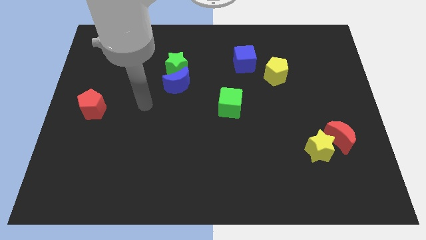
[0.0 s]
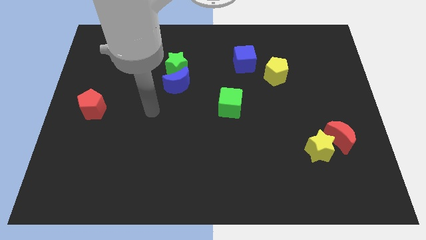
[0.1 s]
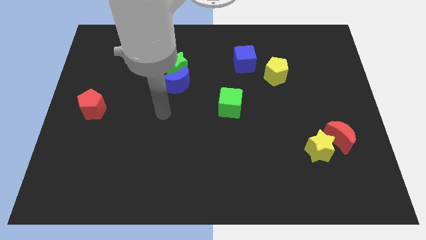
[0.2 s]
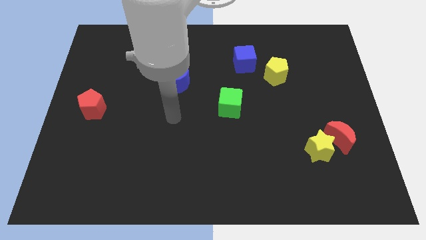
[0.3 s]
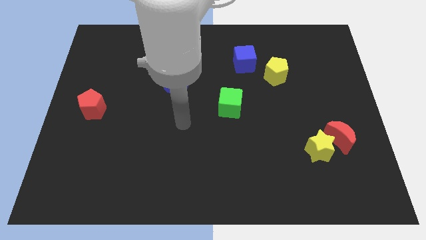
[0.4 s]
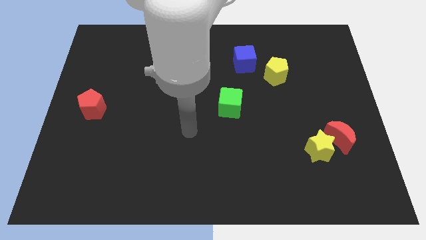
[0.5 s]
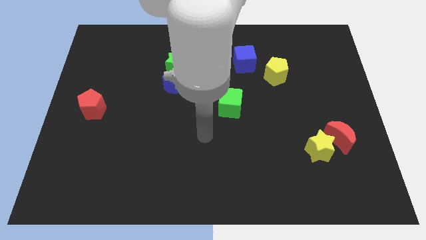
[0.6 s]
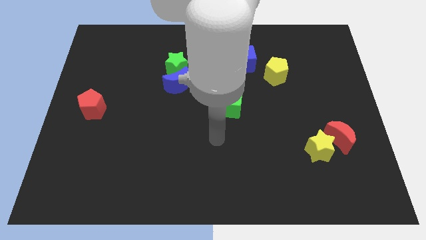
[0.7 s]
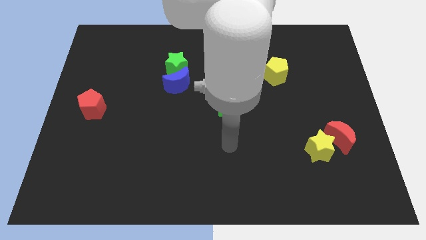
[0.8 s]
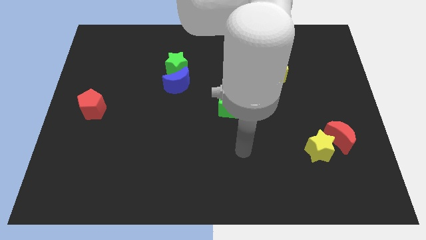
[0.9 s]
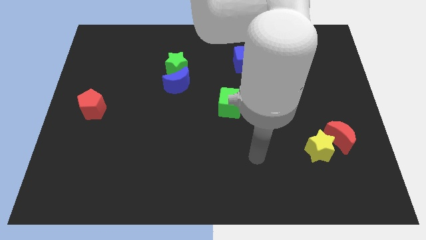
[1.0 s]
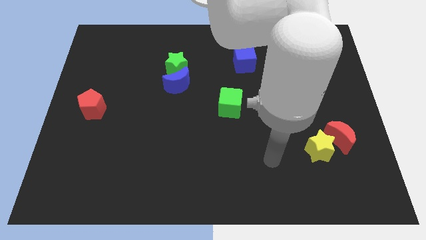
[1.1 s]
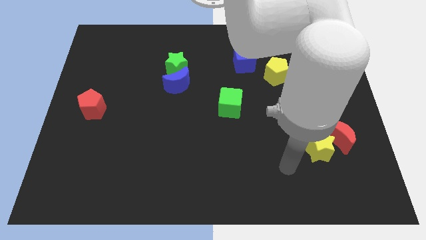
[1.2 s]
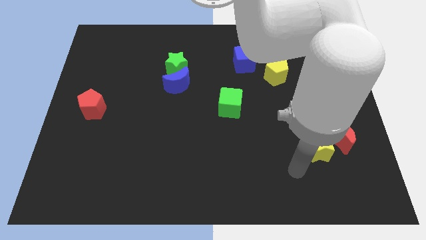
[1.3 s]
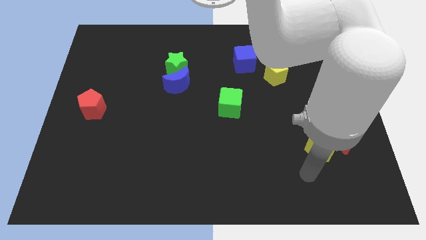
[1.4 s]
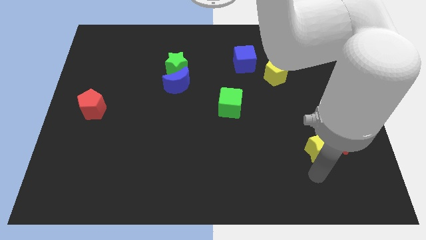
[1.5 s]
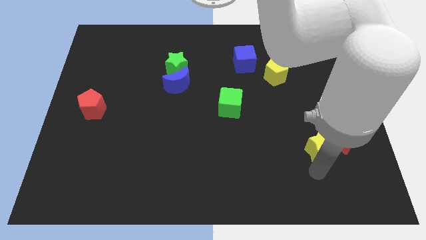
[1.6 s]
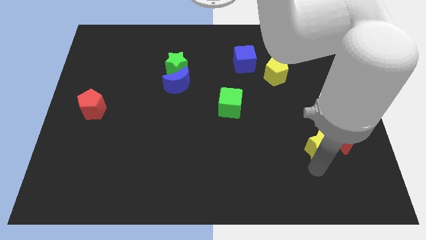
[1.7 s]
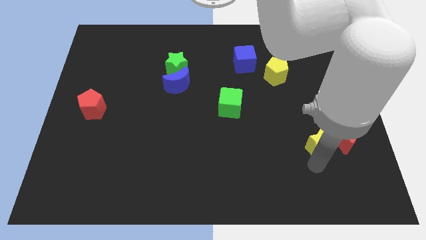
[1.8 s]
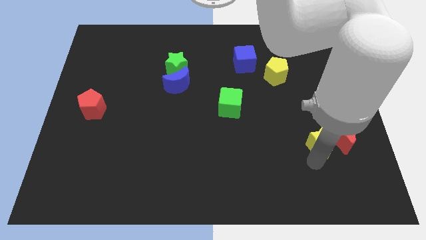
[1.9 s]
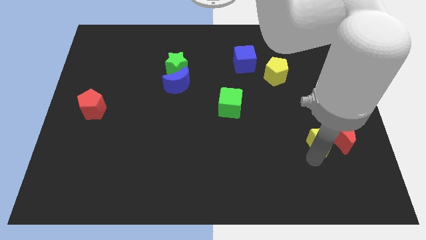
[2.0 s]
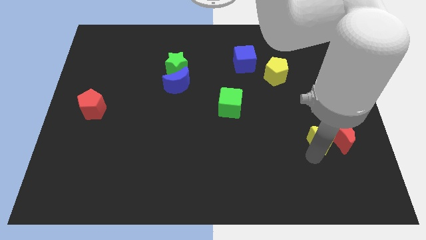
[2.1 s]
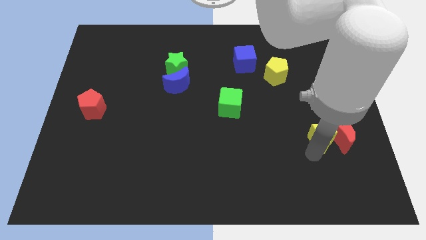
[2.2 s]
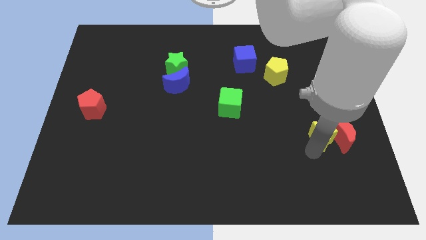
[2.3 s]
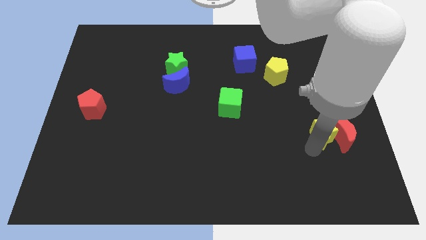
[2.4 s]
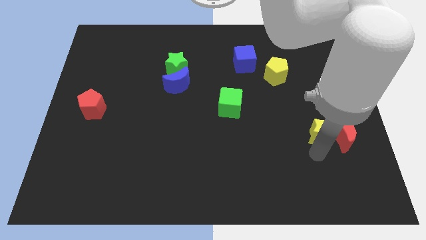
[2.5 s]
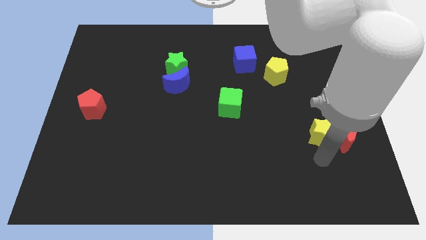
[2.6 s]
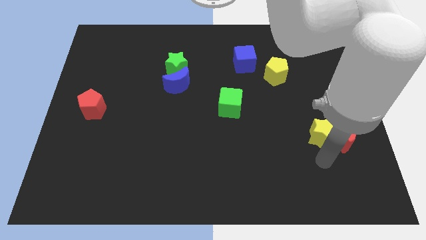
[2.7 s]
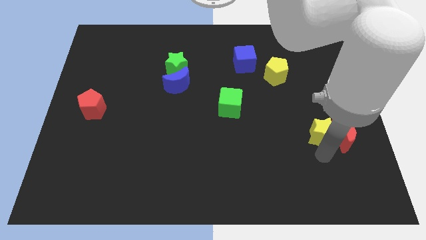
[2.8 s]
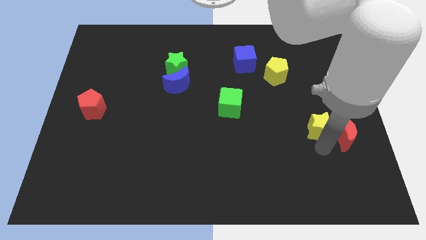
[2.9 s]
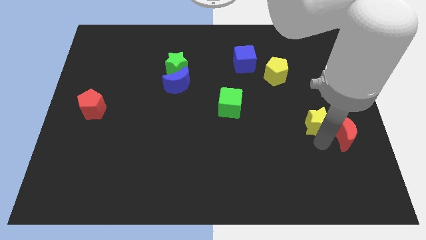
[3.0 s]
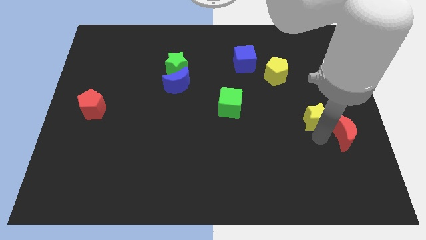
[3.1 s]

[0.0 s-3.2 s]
slide the yellow star up somewhat

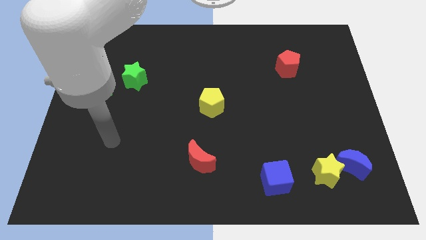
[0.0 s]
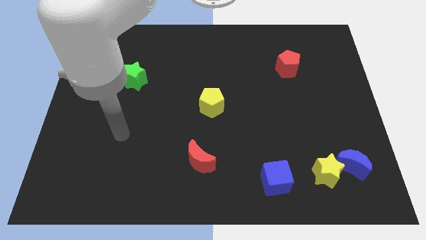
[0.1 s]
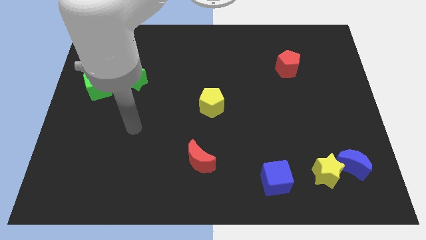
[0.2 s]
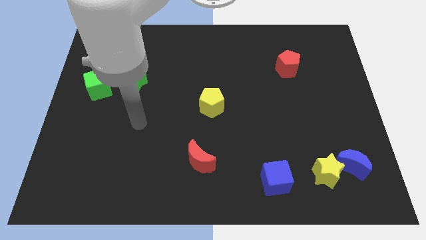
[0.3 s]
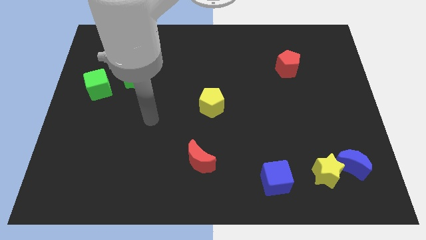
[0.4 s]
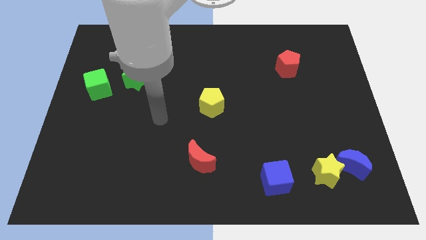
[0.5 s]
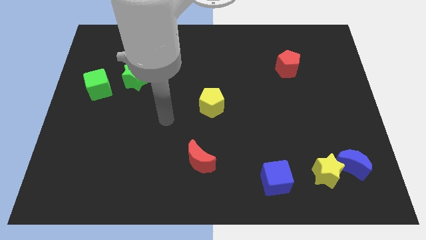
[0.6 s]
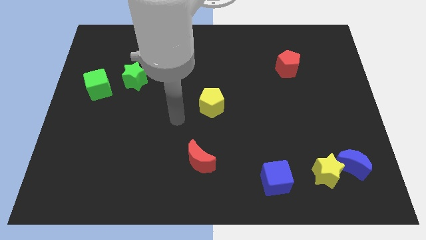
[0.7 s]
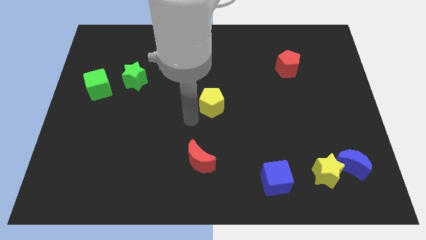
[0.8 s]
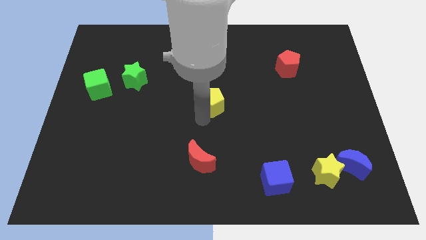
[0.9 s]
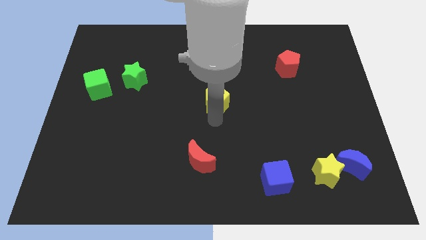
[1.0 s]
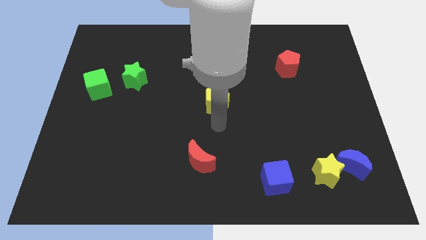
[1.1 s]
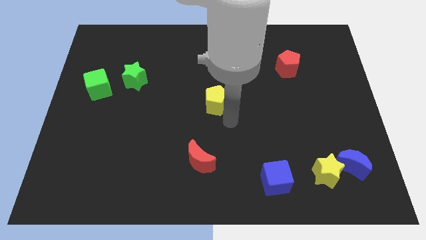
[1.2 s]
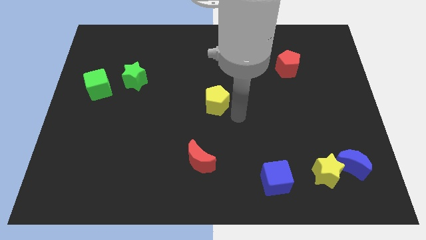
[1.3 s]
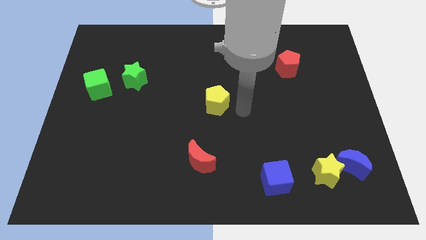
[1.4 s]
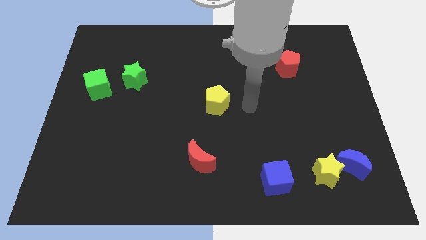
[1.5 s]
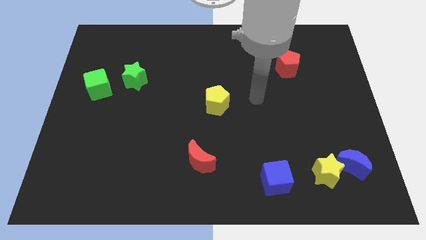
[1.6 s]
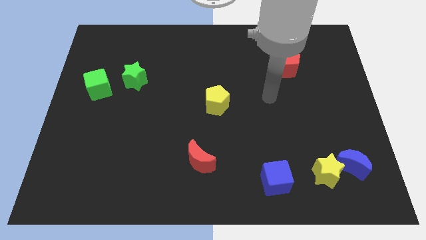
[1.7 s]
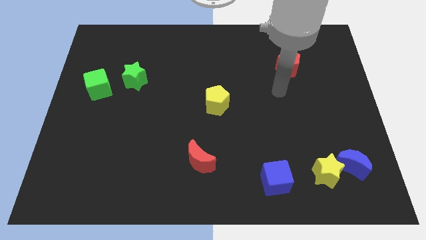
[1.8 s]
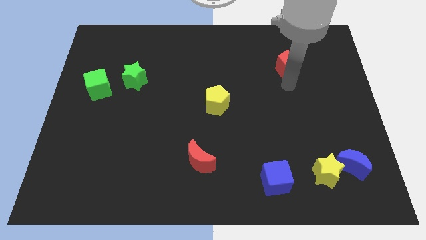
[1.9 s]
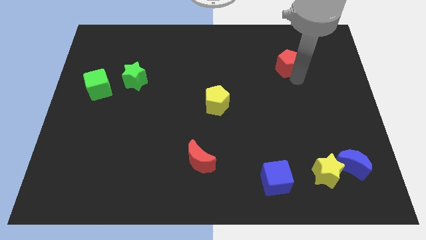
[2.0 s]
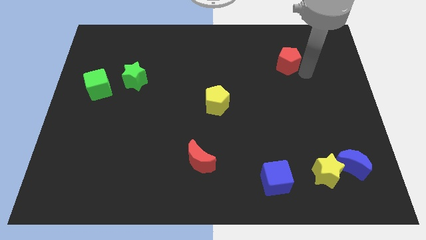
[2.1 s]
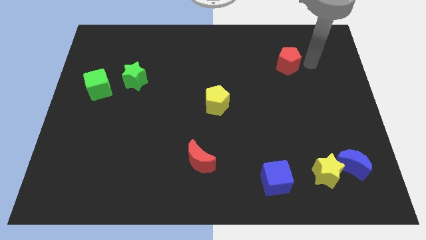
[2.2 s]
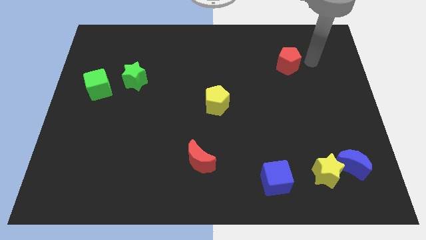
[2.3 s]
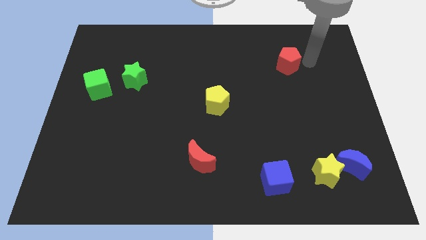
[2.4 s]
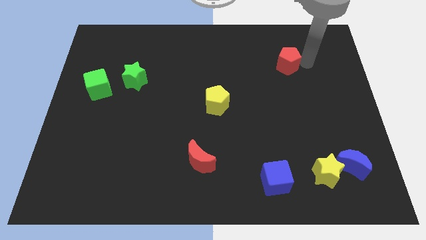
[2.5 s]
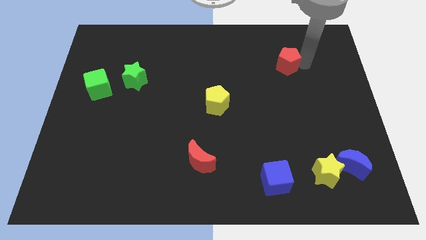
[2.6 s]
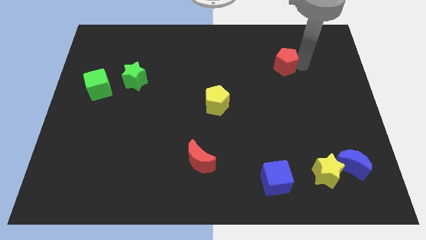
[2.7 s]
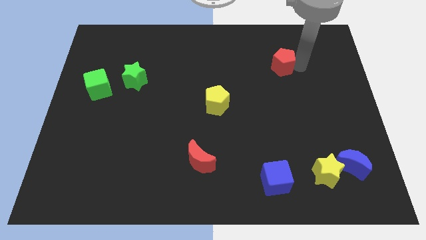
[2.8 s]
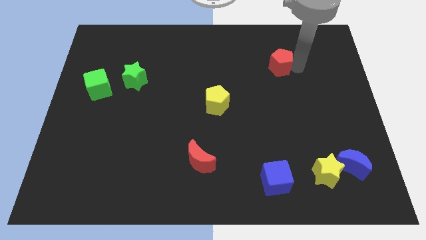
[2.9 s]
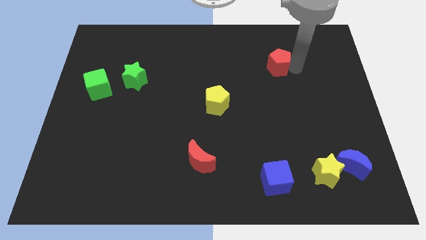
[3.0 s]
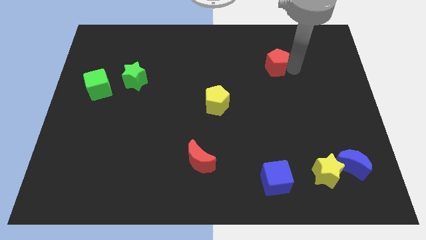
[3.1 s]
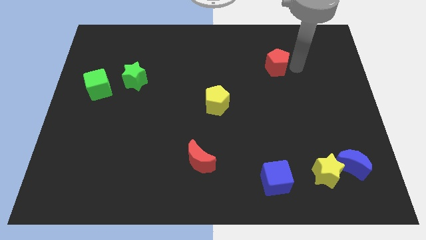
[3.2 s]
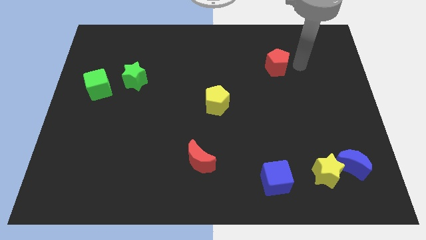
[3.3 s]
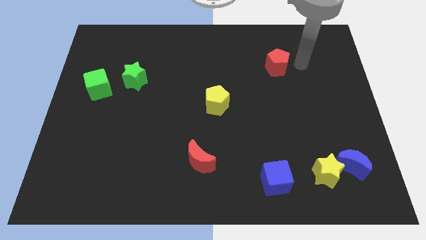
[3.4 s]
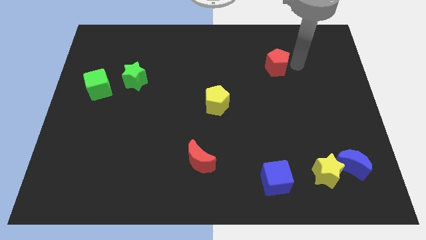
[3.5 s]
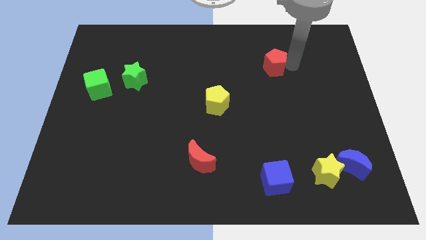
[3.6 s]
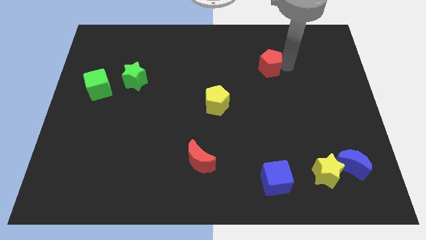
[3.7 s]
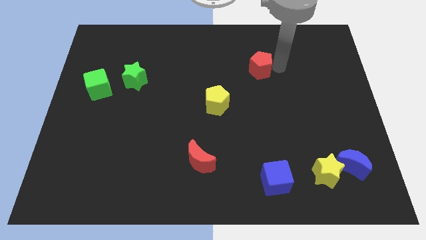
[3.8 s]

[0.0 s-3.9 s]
push the red pentagon a little left

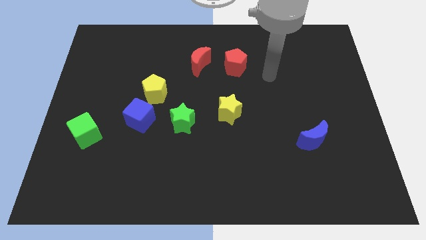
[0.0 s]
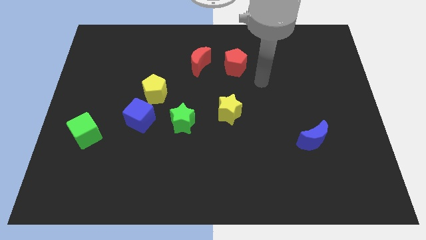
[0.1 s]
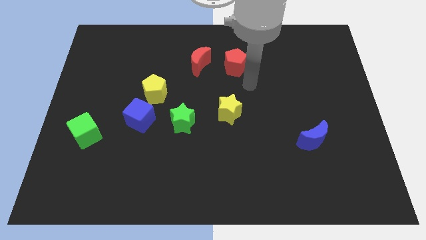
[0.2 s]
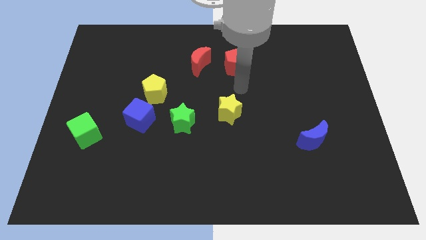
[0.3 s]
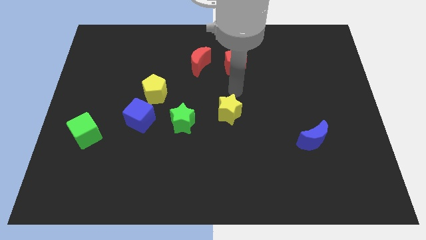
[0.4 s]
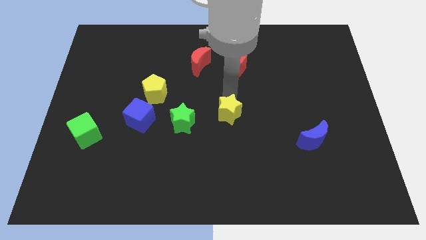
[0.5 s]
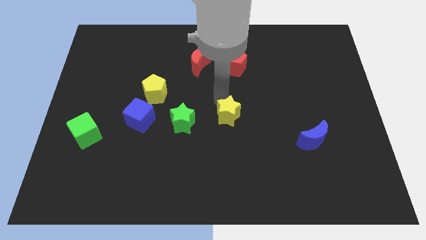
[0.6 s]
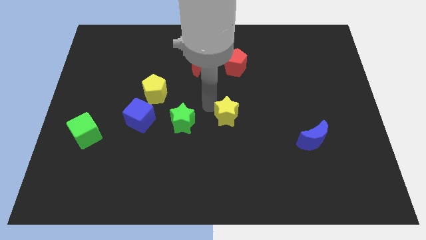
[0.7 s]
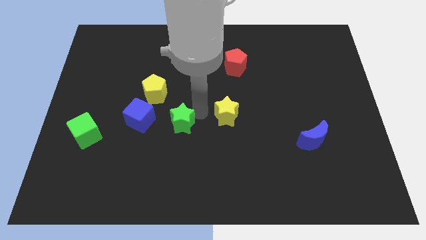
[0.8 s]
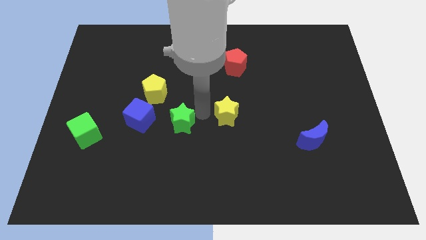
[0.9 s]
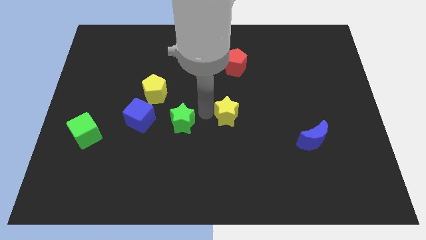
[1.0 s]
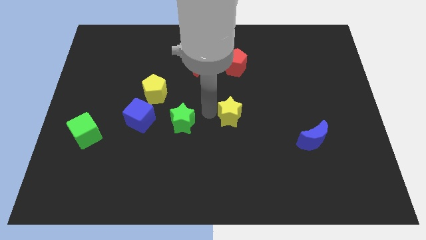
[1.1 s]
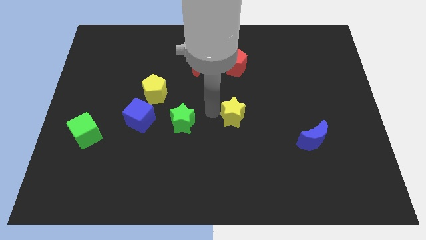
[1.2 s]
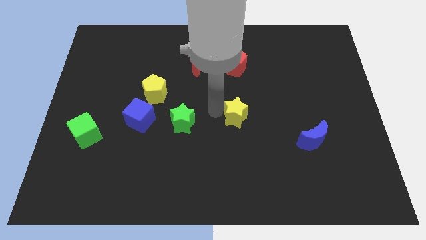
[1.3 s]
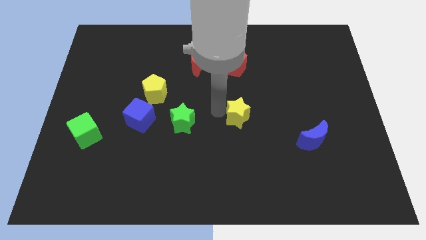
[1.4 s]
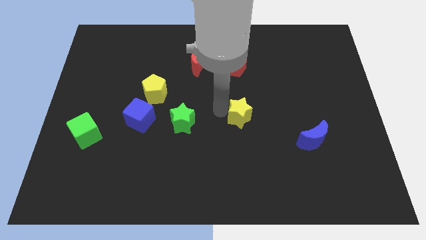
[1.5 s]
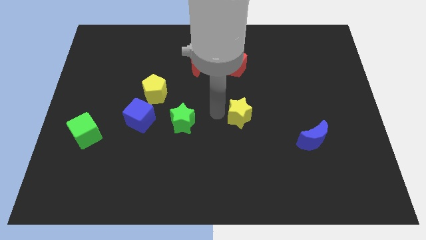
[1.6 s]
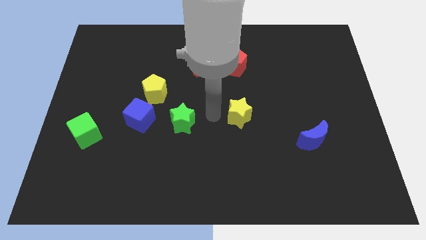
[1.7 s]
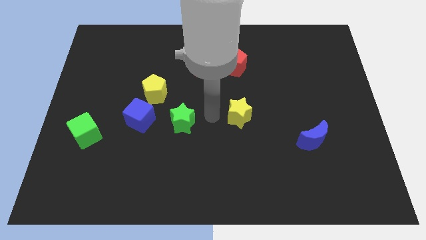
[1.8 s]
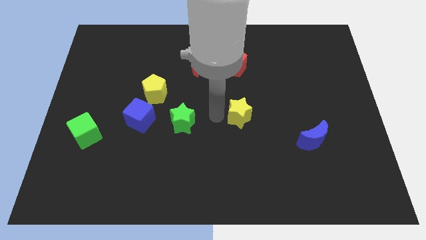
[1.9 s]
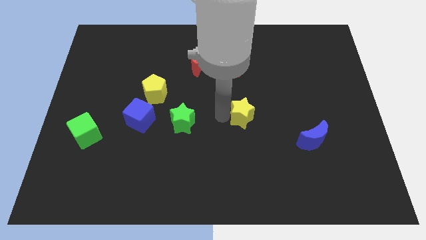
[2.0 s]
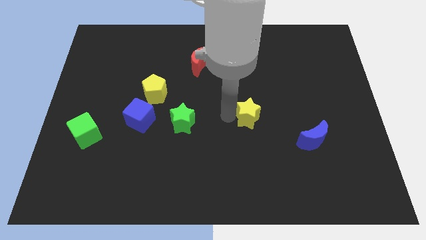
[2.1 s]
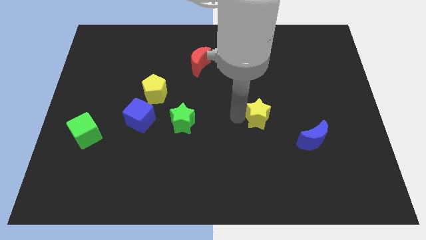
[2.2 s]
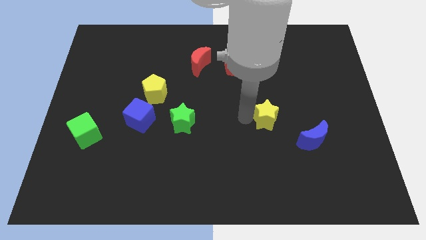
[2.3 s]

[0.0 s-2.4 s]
slightly slide the yellow star to the right
